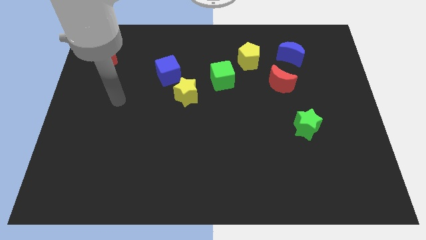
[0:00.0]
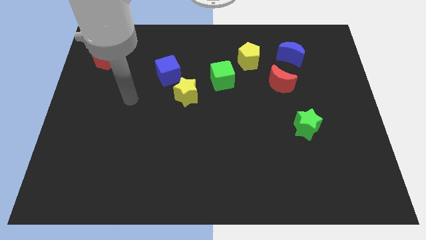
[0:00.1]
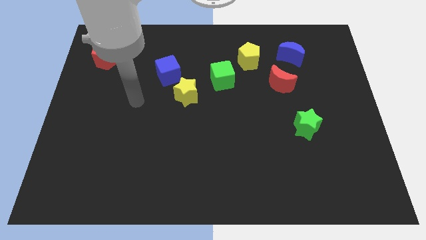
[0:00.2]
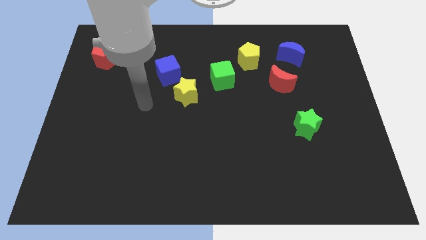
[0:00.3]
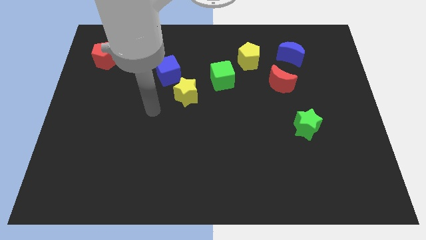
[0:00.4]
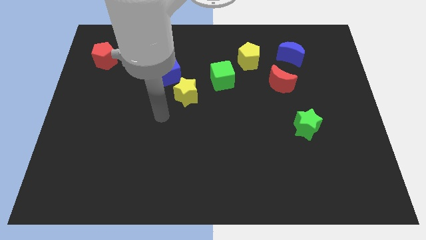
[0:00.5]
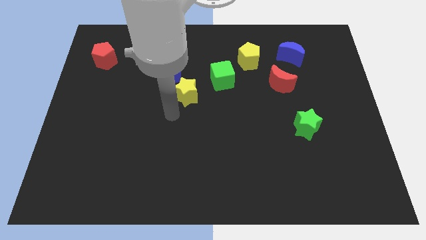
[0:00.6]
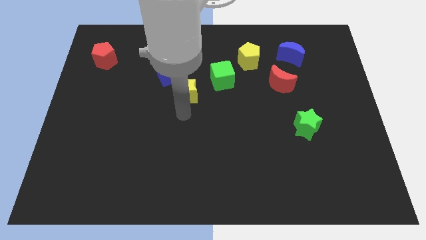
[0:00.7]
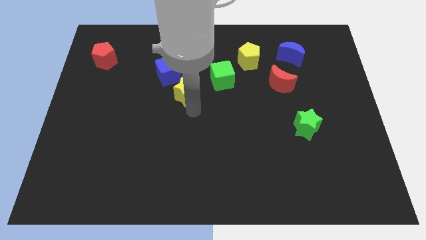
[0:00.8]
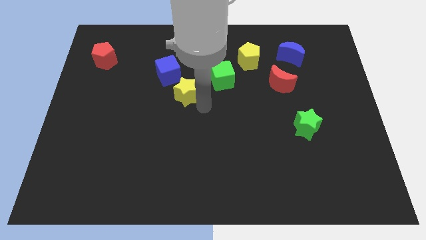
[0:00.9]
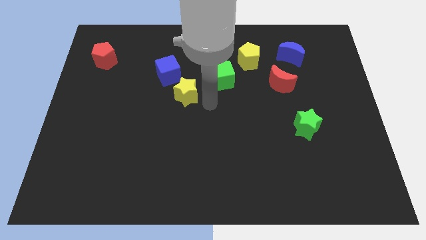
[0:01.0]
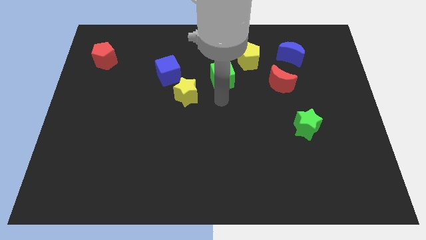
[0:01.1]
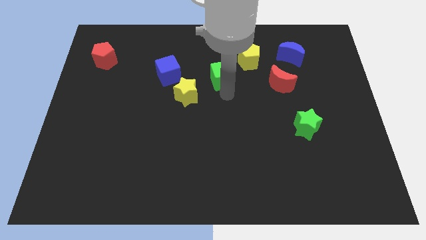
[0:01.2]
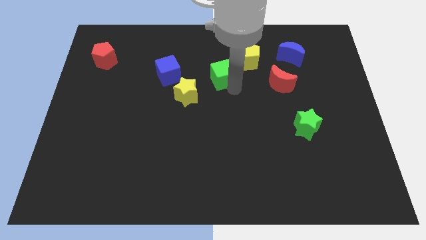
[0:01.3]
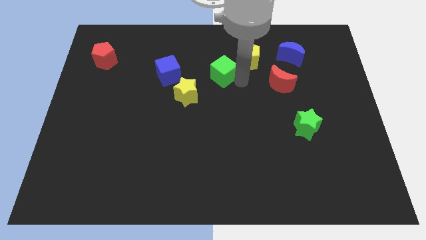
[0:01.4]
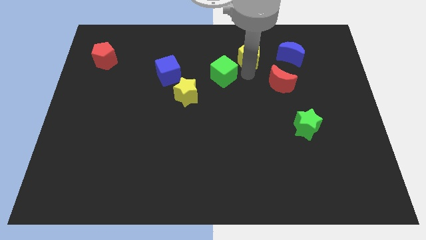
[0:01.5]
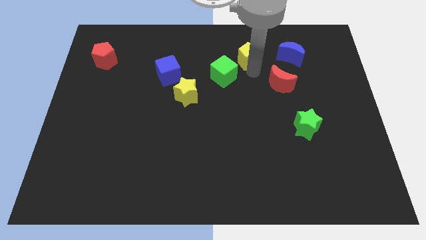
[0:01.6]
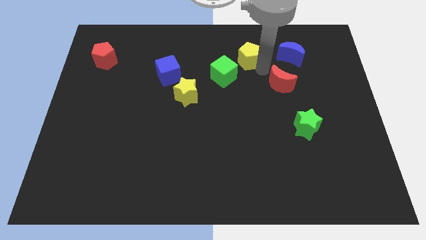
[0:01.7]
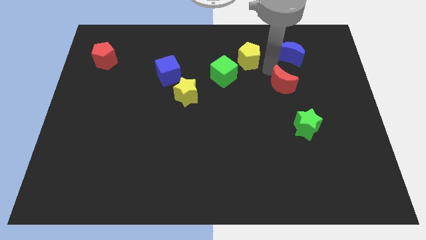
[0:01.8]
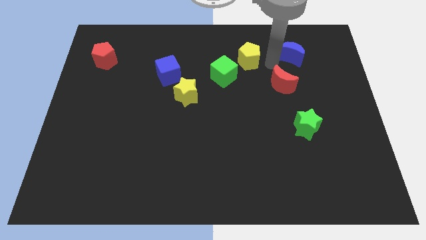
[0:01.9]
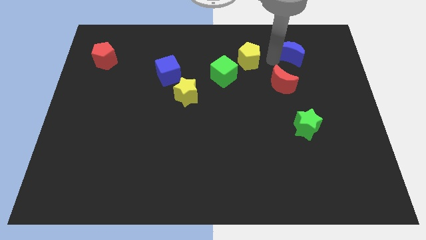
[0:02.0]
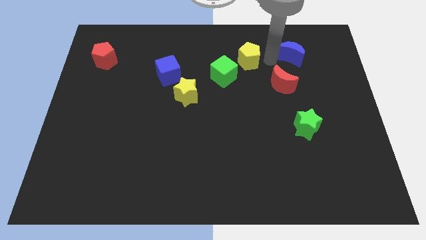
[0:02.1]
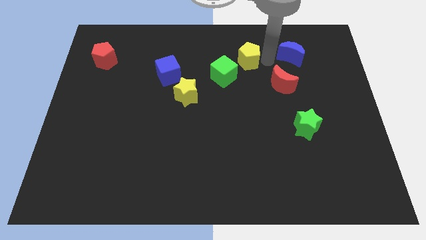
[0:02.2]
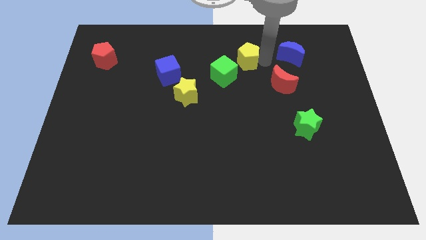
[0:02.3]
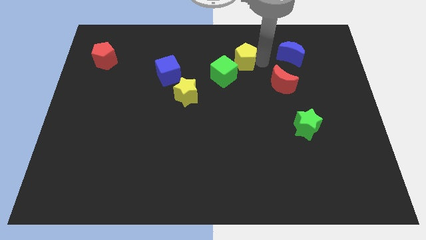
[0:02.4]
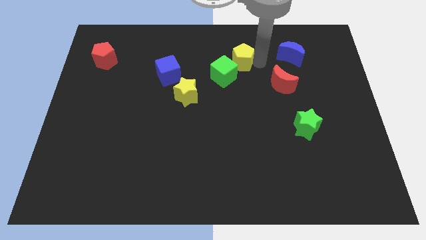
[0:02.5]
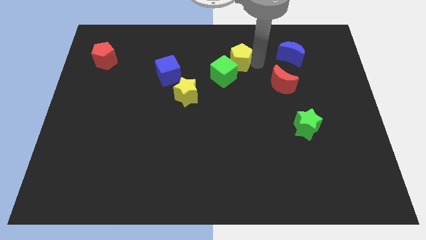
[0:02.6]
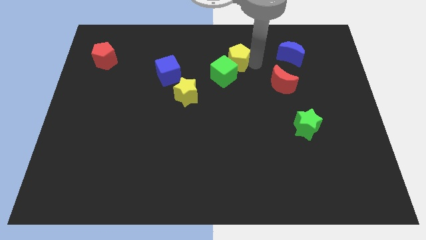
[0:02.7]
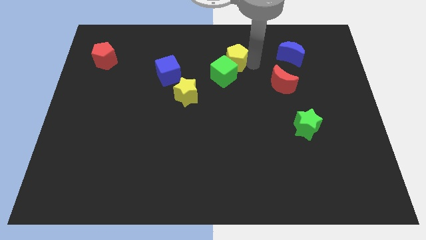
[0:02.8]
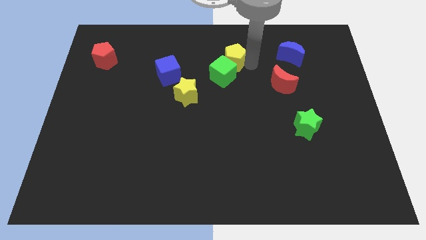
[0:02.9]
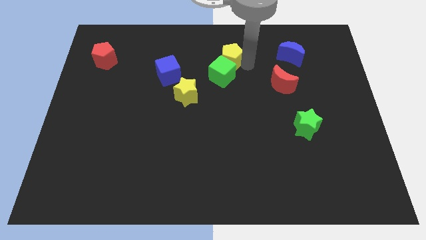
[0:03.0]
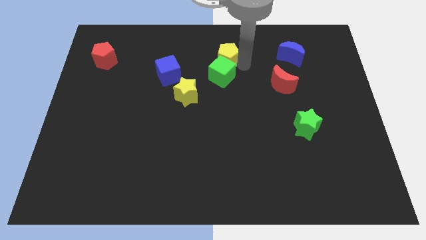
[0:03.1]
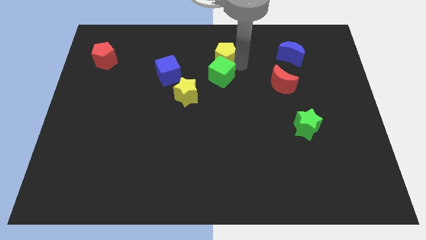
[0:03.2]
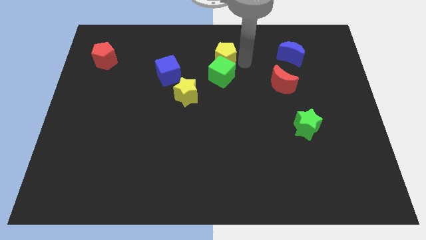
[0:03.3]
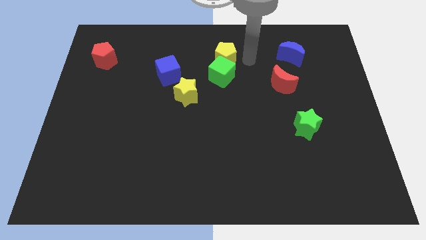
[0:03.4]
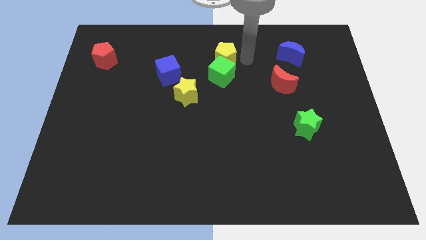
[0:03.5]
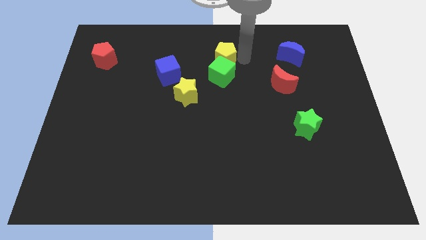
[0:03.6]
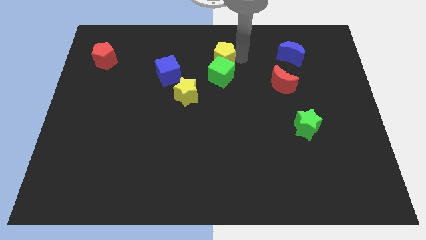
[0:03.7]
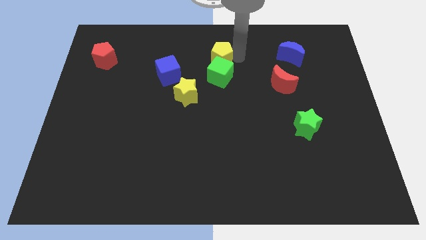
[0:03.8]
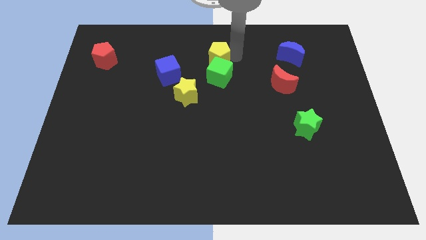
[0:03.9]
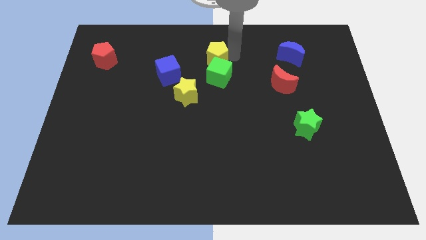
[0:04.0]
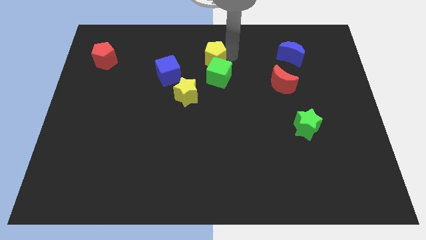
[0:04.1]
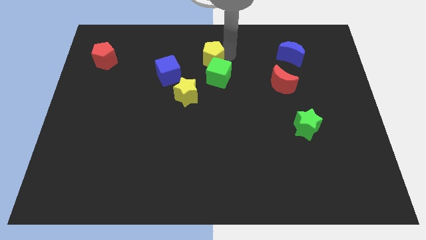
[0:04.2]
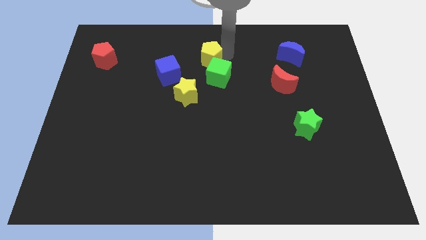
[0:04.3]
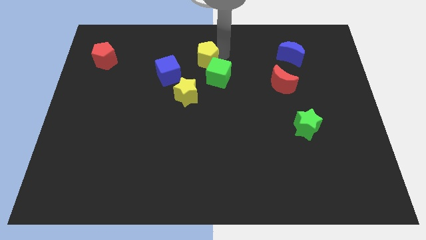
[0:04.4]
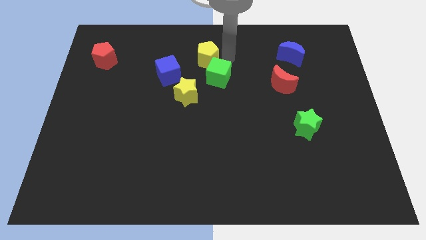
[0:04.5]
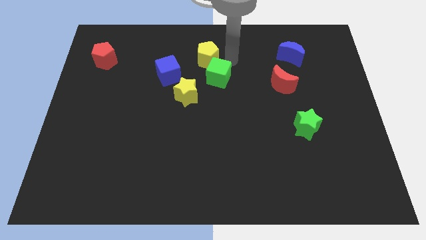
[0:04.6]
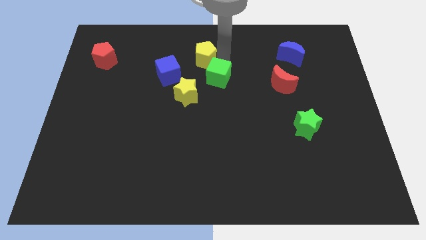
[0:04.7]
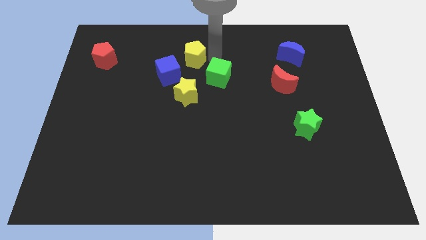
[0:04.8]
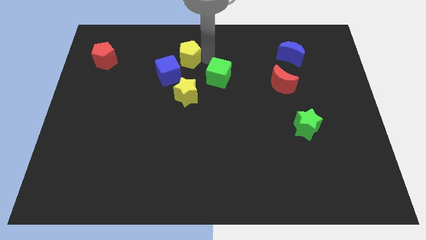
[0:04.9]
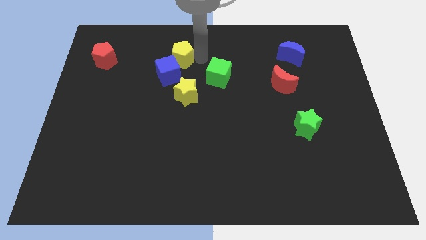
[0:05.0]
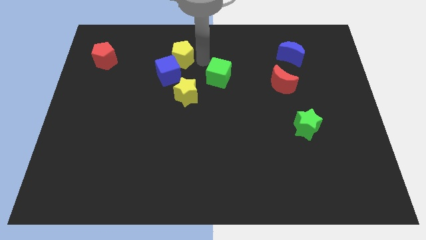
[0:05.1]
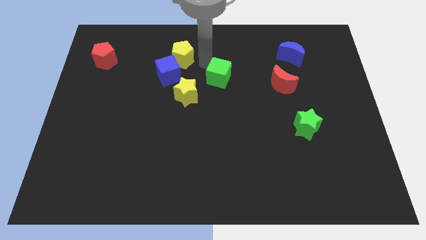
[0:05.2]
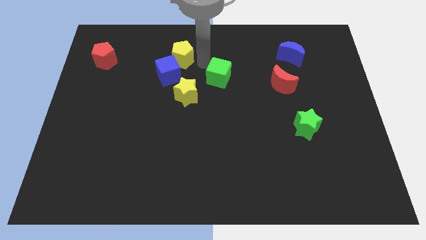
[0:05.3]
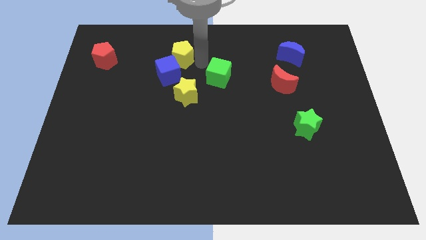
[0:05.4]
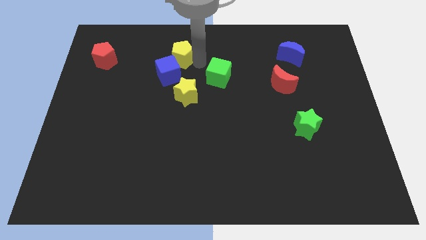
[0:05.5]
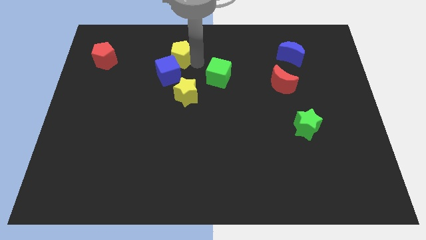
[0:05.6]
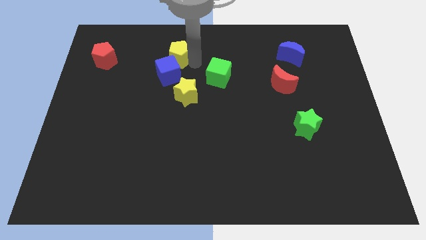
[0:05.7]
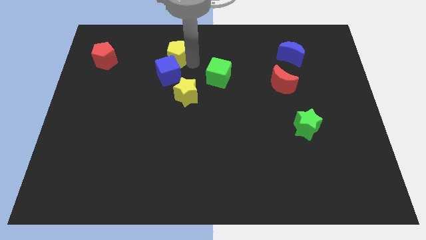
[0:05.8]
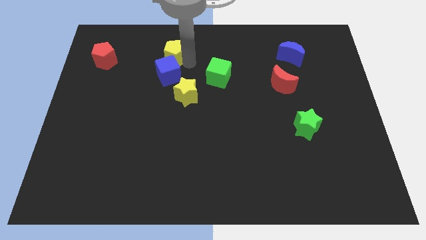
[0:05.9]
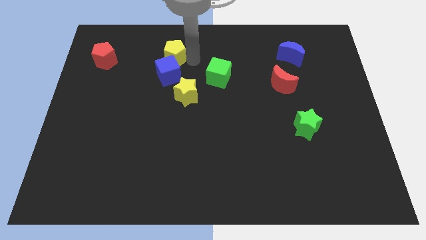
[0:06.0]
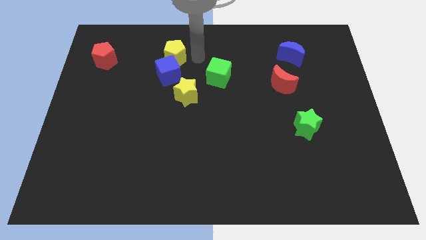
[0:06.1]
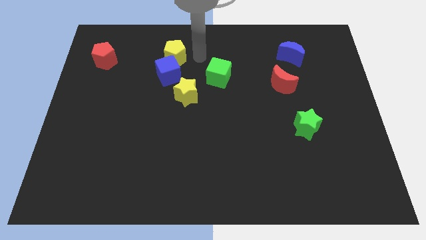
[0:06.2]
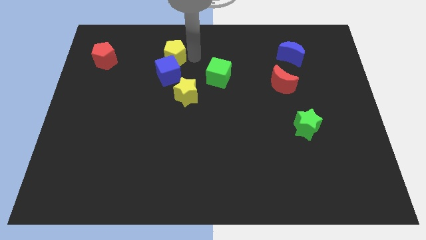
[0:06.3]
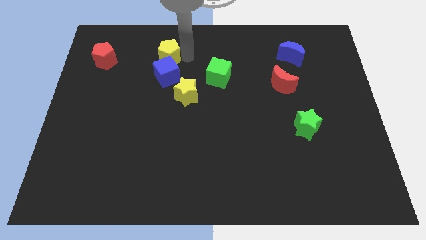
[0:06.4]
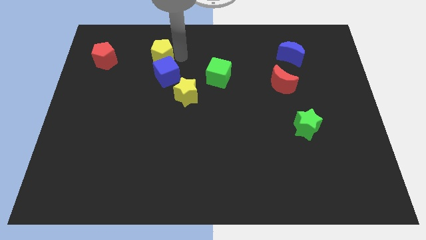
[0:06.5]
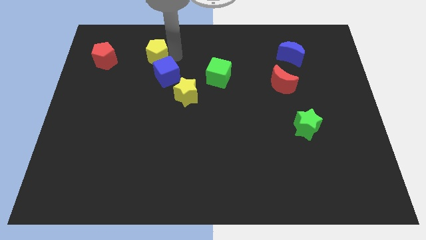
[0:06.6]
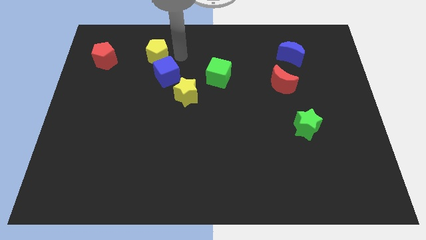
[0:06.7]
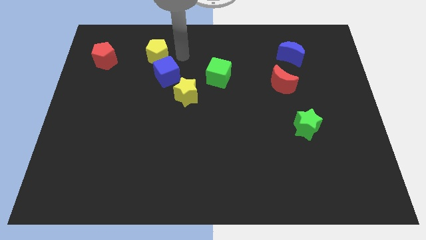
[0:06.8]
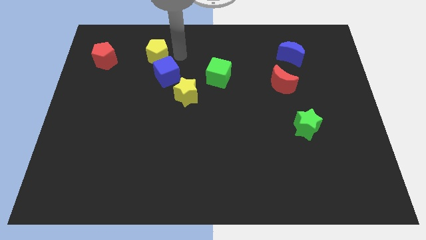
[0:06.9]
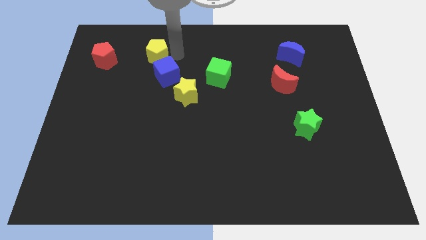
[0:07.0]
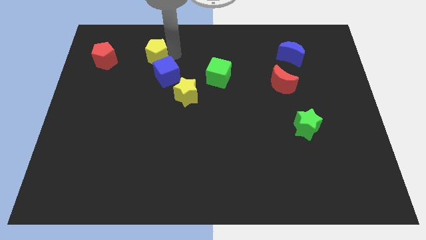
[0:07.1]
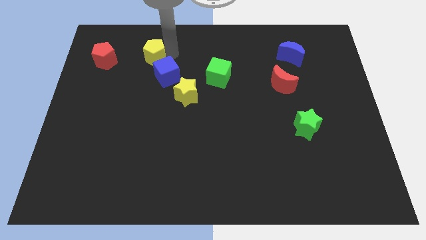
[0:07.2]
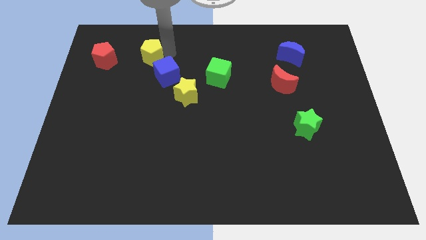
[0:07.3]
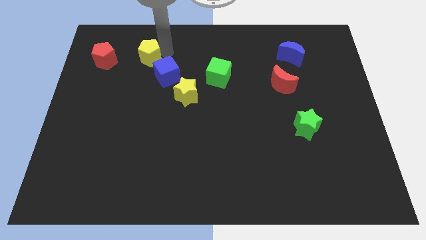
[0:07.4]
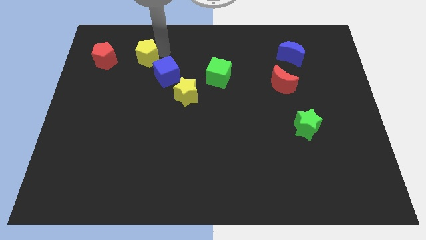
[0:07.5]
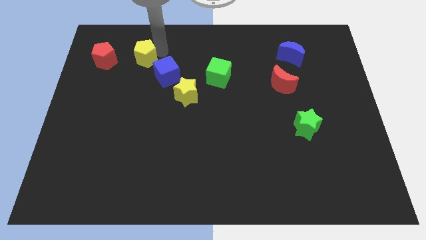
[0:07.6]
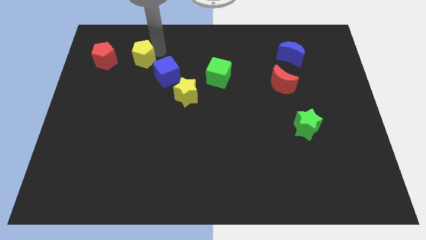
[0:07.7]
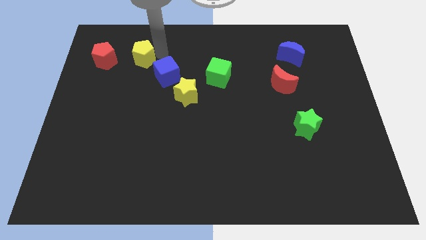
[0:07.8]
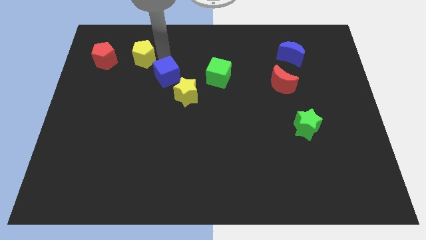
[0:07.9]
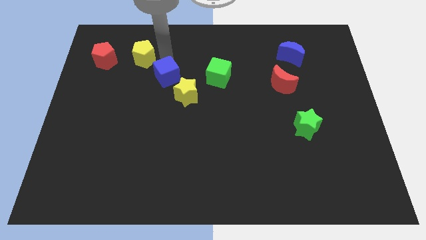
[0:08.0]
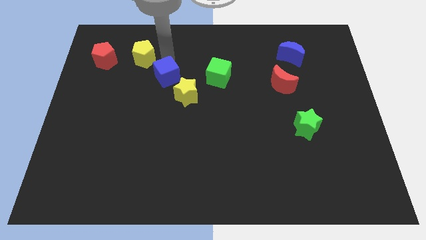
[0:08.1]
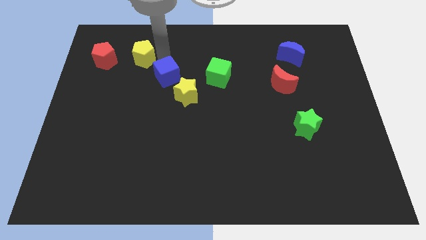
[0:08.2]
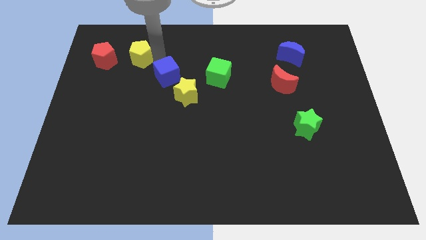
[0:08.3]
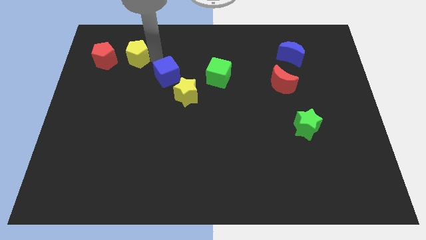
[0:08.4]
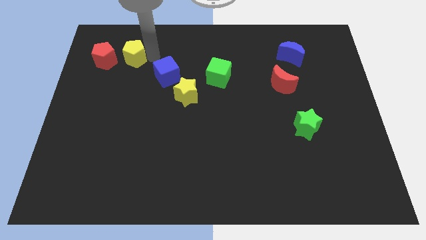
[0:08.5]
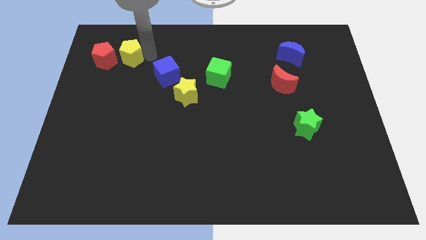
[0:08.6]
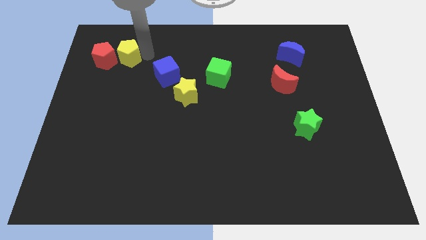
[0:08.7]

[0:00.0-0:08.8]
slide the yellow pentagon next to the red pentagon
